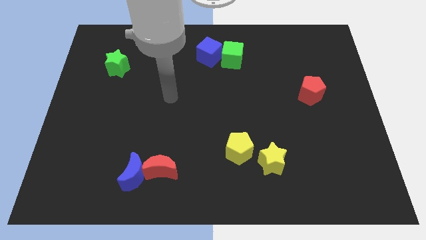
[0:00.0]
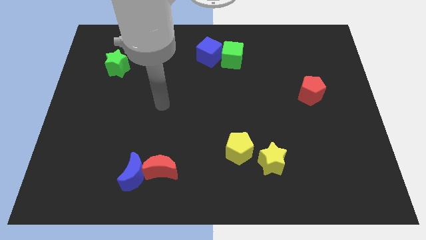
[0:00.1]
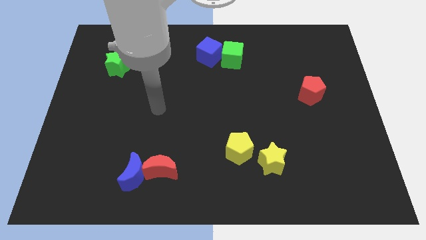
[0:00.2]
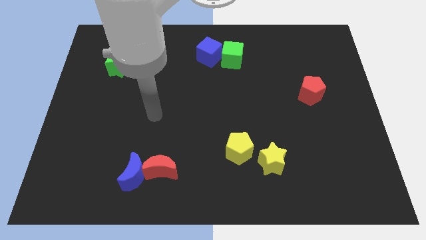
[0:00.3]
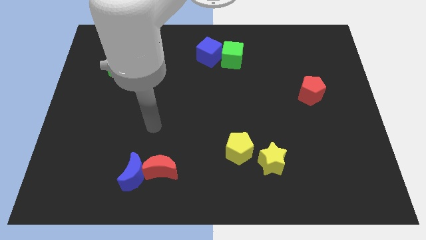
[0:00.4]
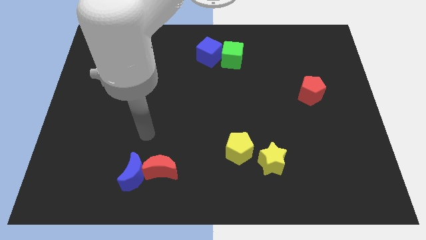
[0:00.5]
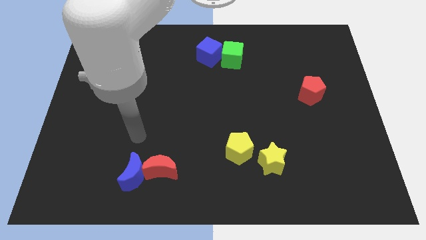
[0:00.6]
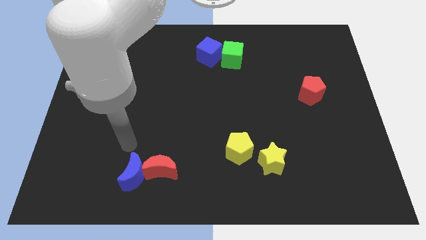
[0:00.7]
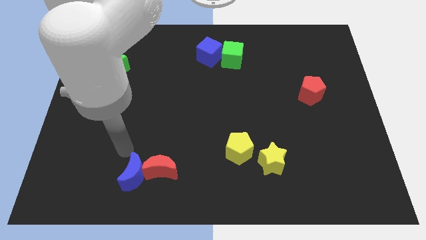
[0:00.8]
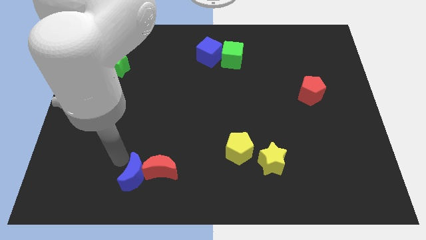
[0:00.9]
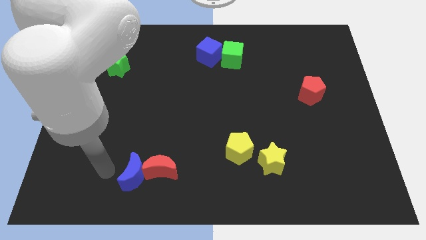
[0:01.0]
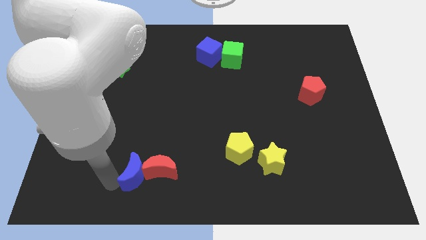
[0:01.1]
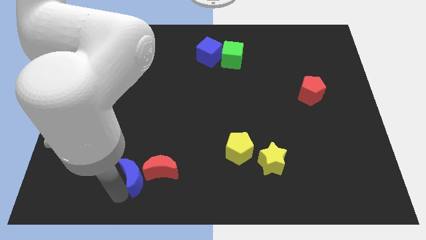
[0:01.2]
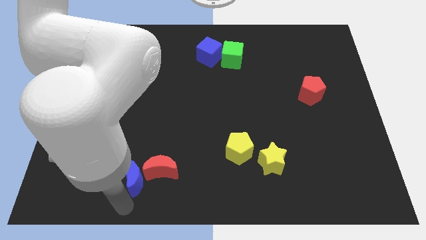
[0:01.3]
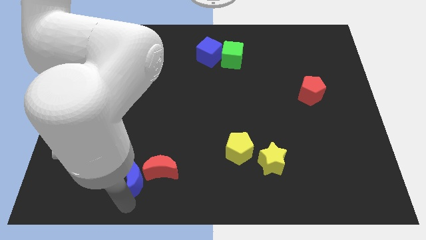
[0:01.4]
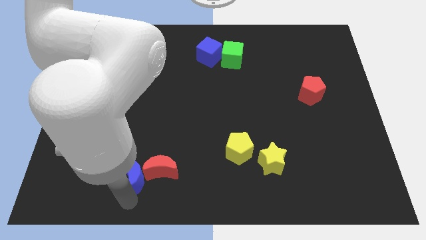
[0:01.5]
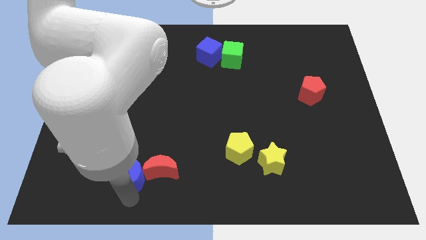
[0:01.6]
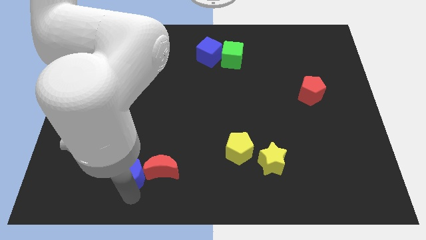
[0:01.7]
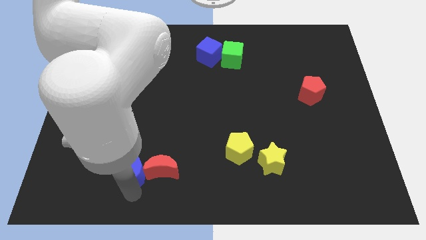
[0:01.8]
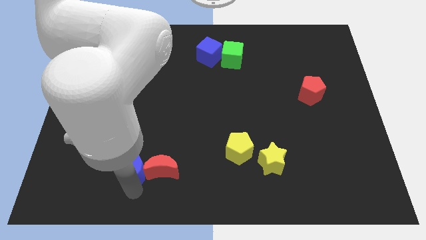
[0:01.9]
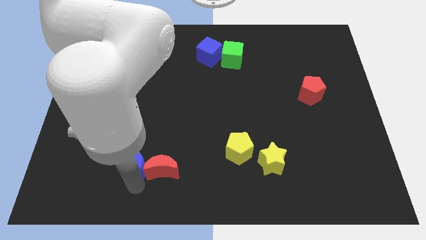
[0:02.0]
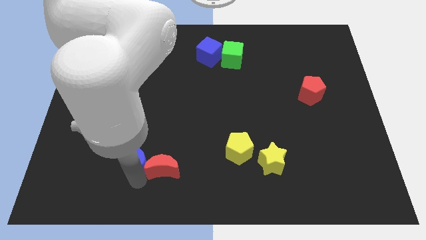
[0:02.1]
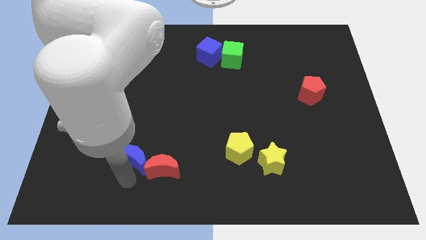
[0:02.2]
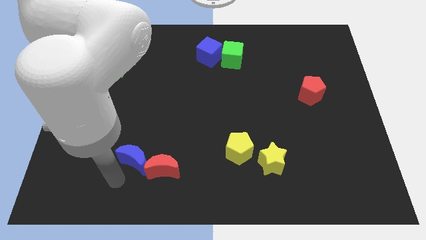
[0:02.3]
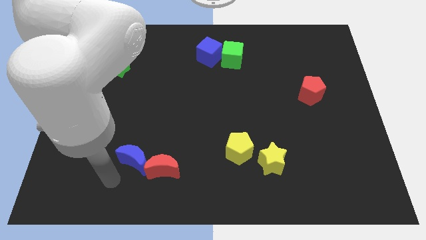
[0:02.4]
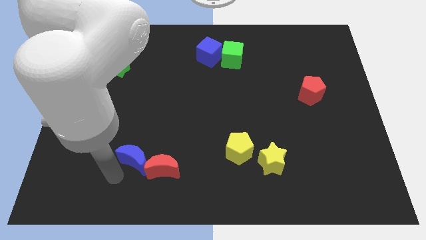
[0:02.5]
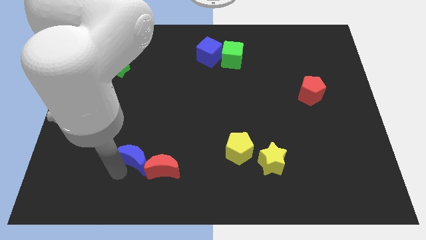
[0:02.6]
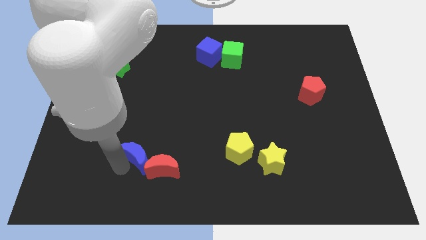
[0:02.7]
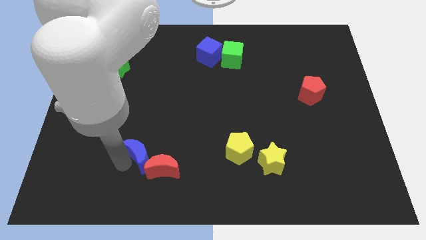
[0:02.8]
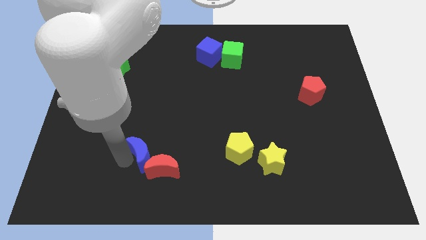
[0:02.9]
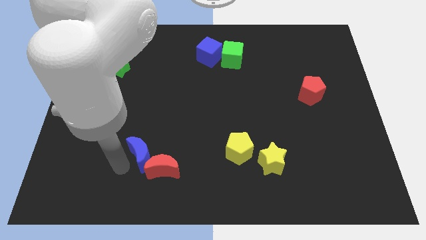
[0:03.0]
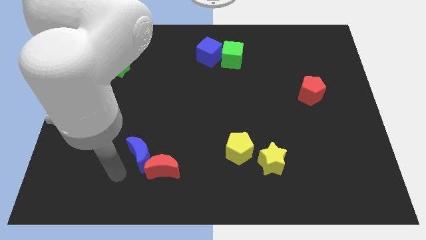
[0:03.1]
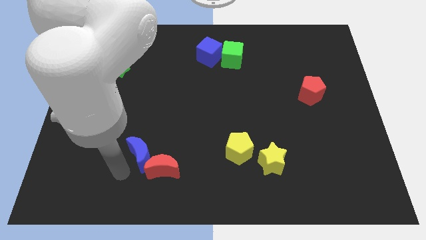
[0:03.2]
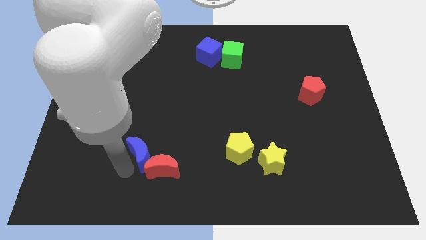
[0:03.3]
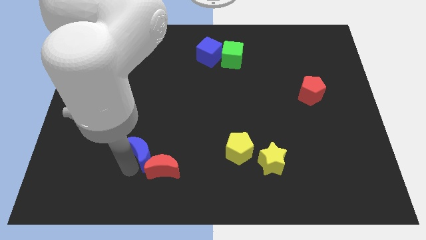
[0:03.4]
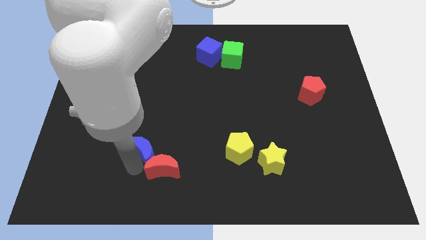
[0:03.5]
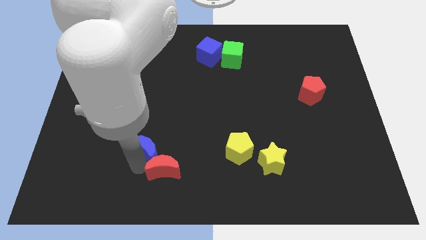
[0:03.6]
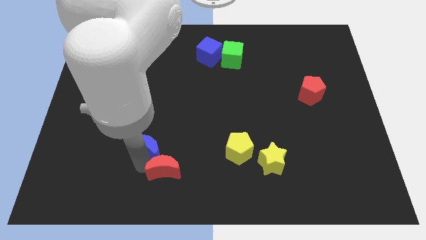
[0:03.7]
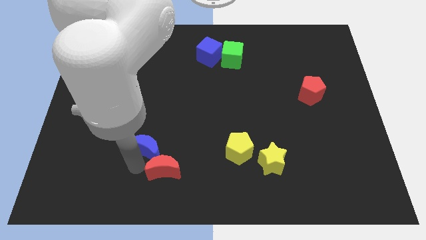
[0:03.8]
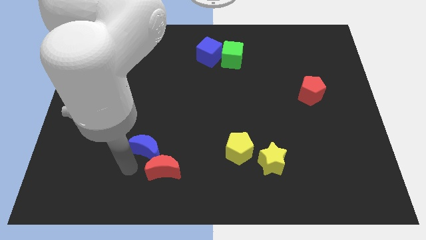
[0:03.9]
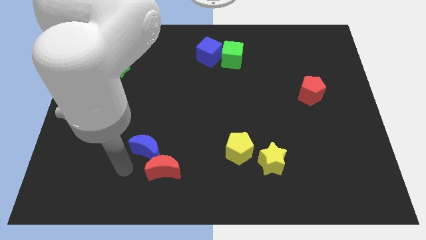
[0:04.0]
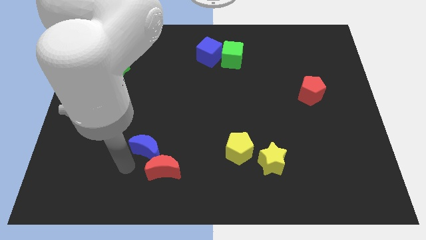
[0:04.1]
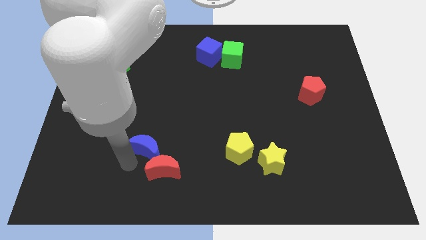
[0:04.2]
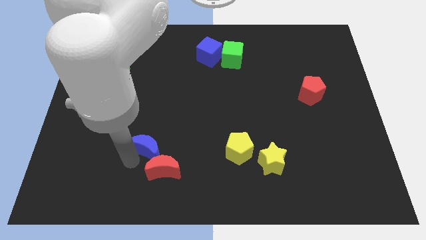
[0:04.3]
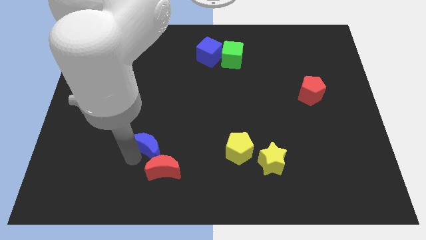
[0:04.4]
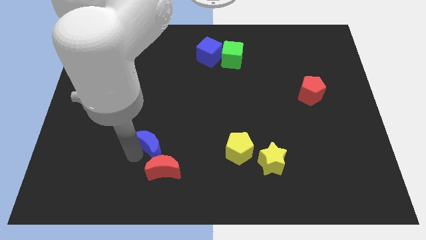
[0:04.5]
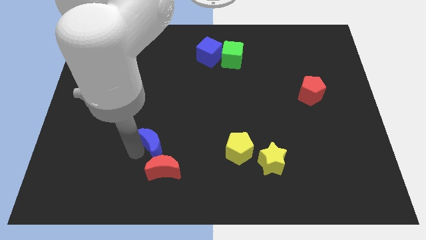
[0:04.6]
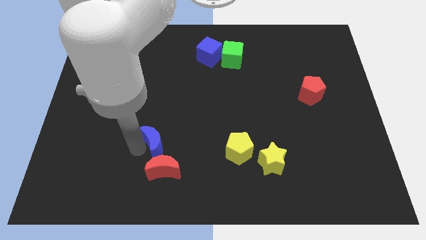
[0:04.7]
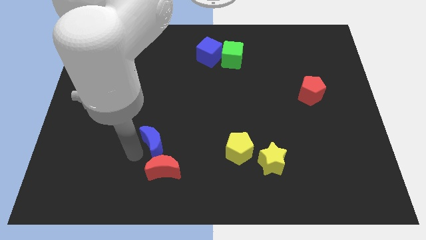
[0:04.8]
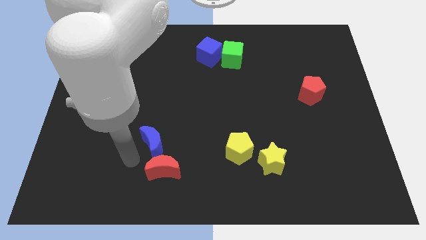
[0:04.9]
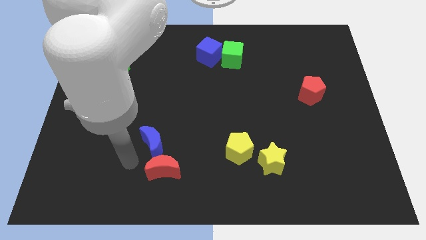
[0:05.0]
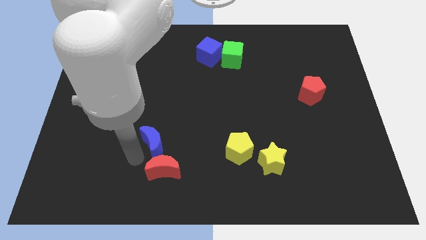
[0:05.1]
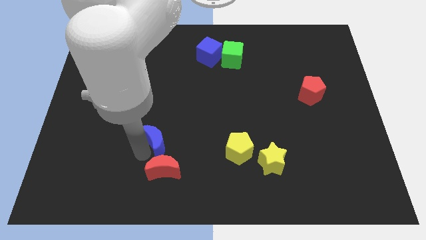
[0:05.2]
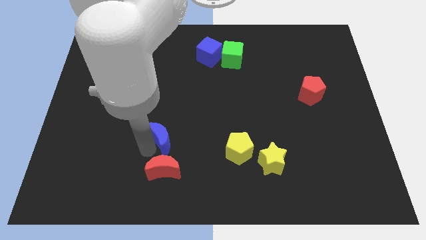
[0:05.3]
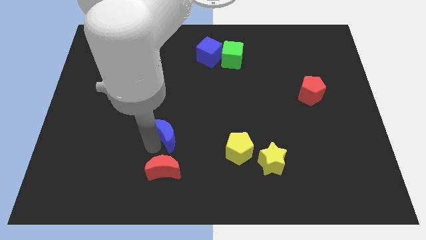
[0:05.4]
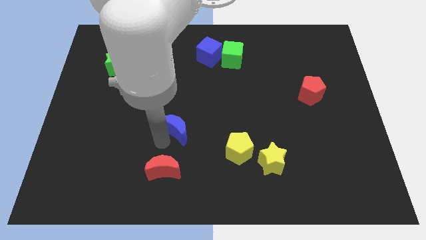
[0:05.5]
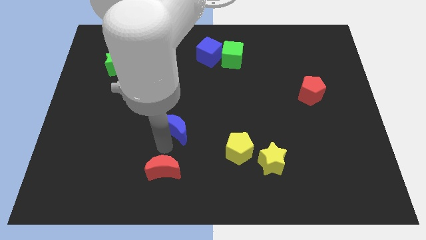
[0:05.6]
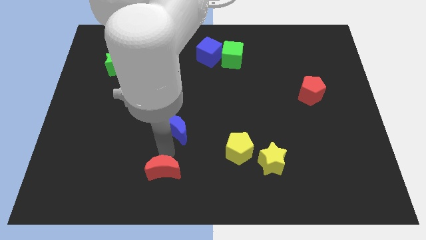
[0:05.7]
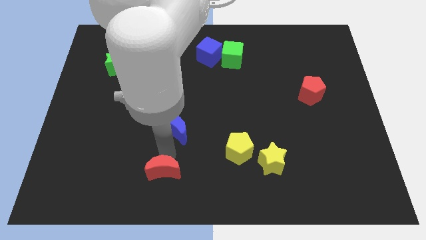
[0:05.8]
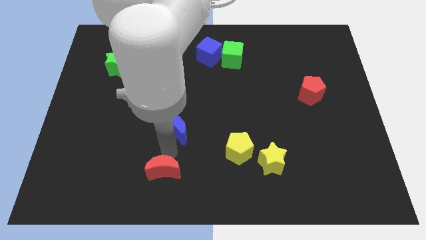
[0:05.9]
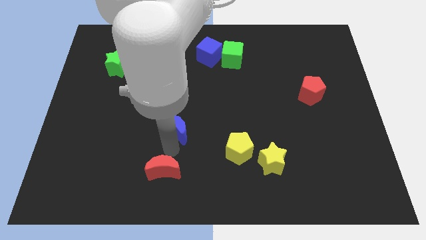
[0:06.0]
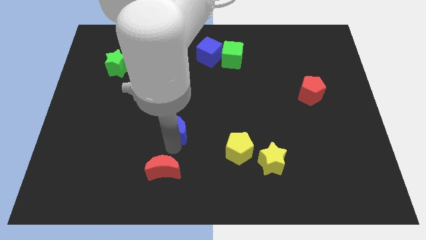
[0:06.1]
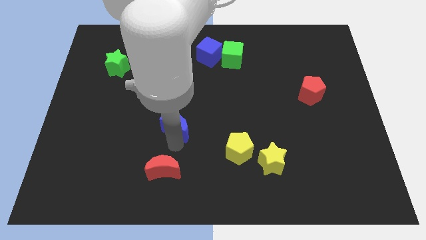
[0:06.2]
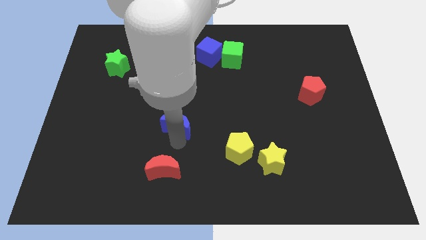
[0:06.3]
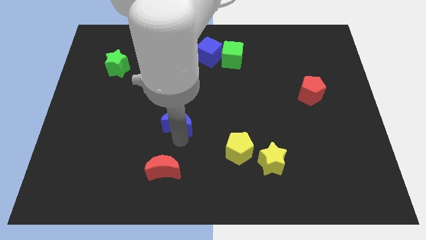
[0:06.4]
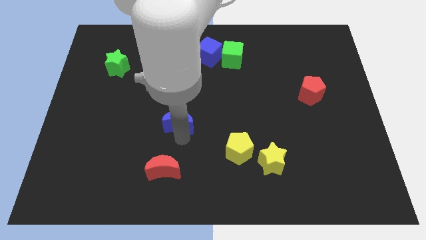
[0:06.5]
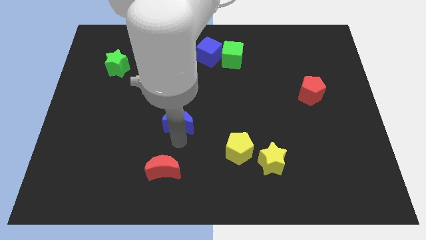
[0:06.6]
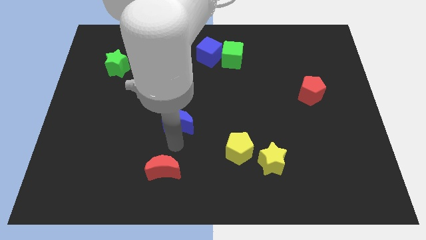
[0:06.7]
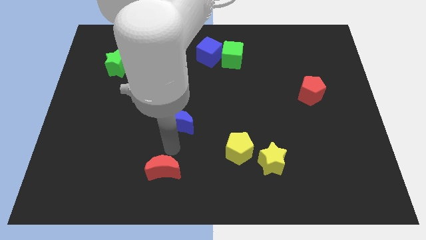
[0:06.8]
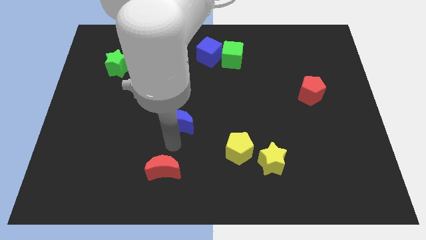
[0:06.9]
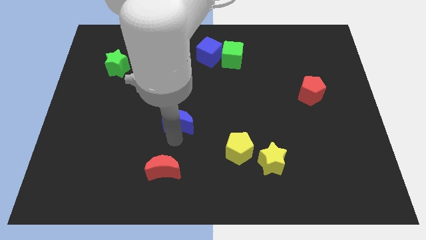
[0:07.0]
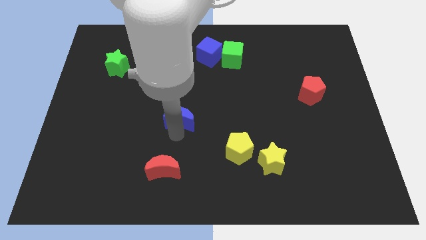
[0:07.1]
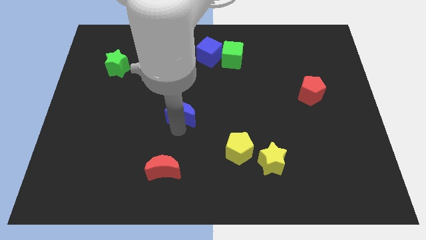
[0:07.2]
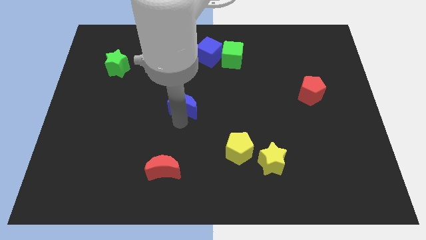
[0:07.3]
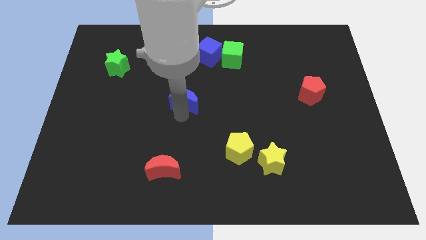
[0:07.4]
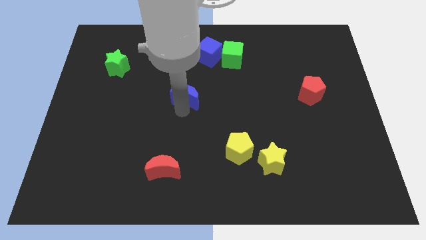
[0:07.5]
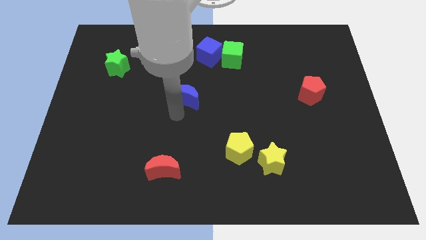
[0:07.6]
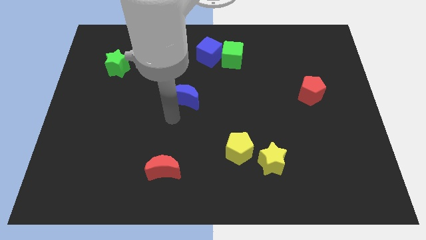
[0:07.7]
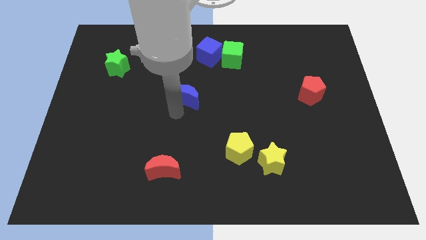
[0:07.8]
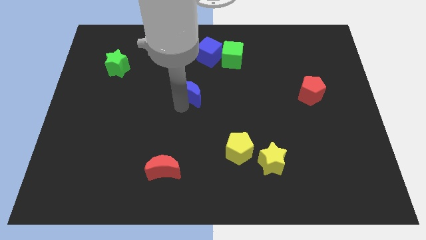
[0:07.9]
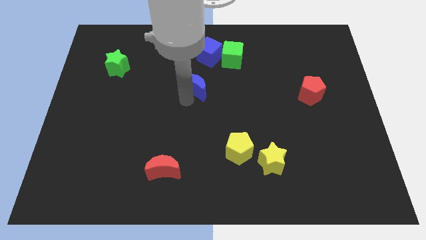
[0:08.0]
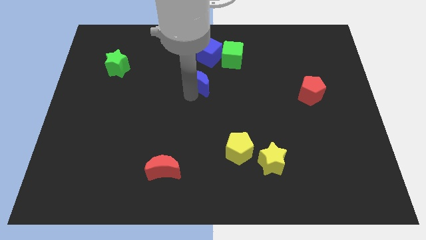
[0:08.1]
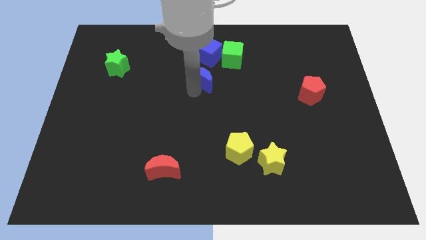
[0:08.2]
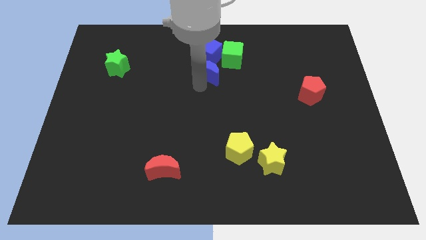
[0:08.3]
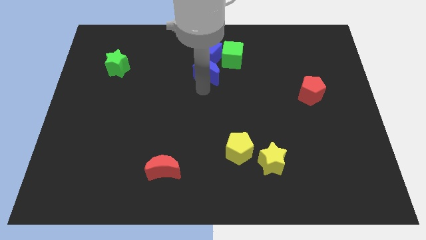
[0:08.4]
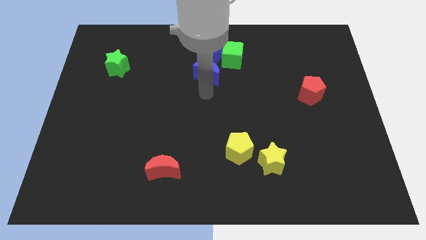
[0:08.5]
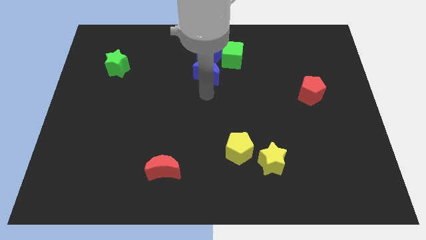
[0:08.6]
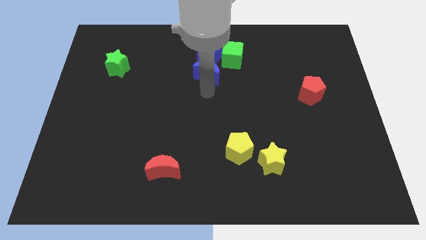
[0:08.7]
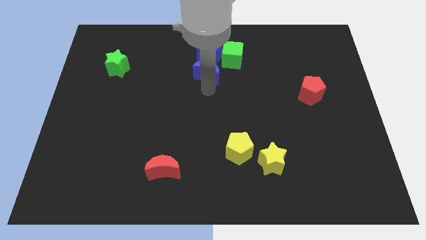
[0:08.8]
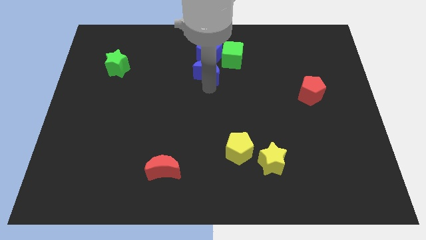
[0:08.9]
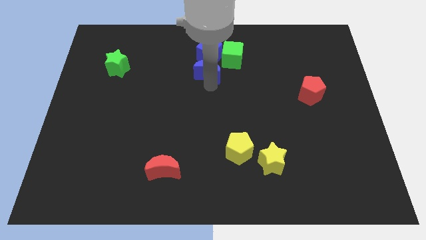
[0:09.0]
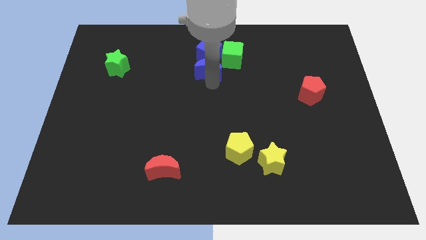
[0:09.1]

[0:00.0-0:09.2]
slide the blue moon next to the blue cube
